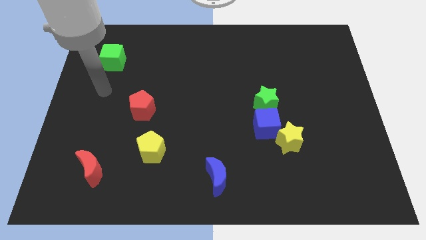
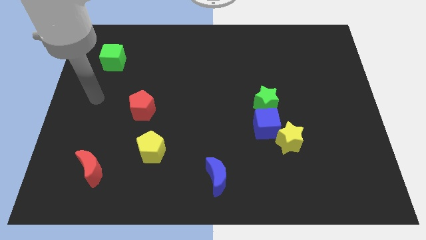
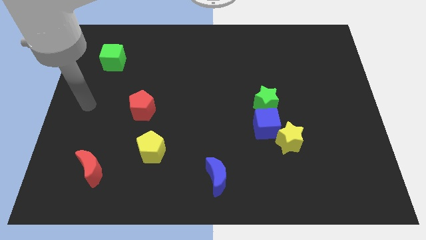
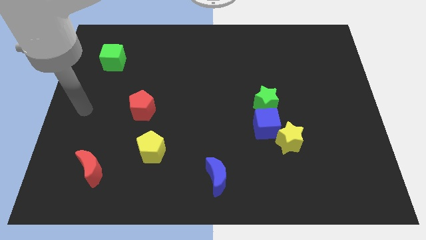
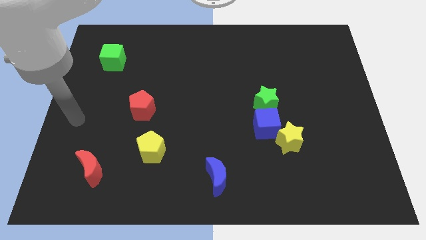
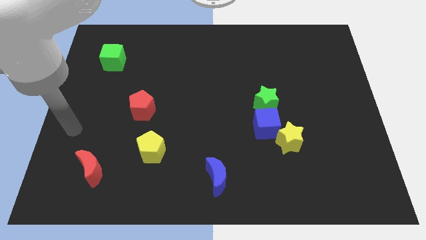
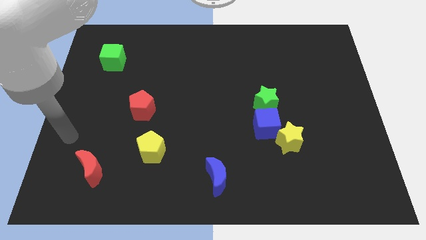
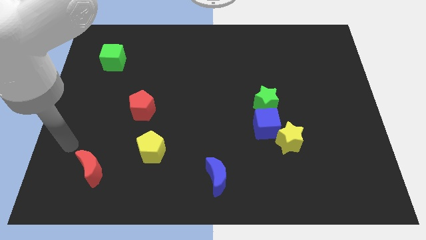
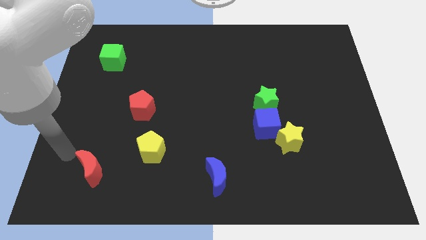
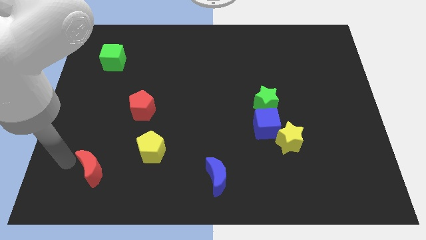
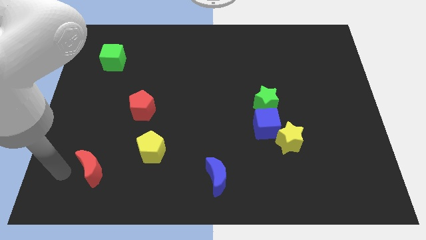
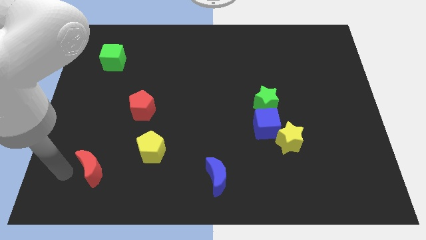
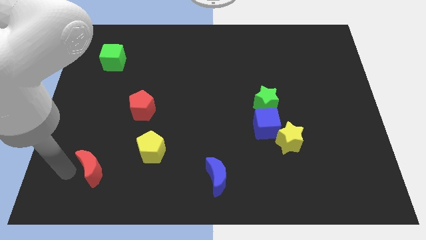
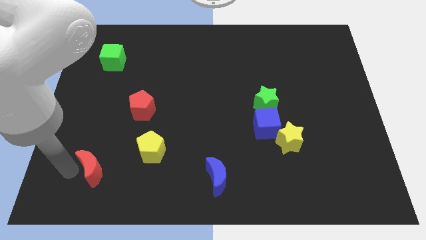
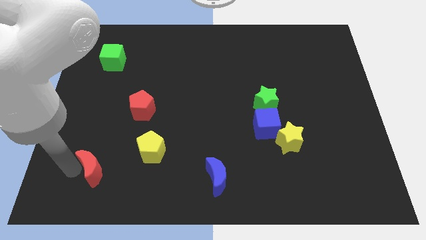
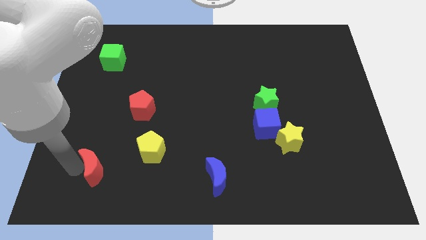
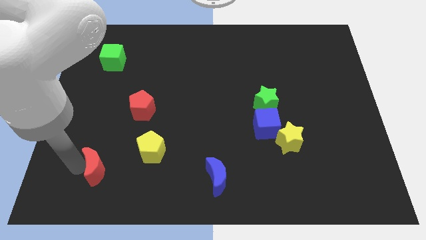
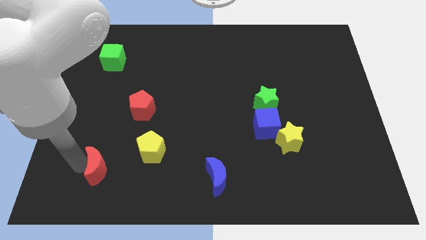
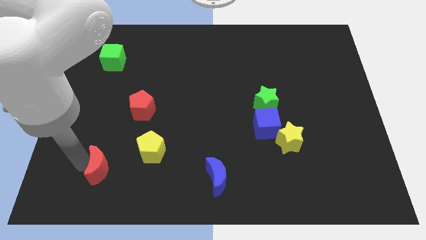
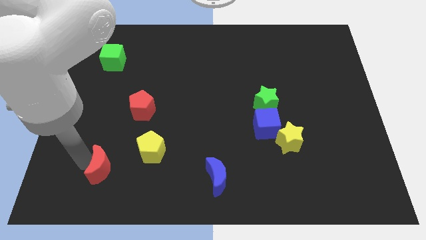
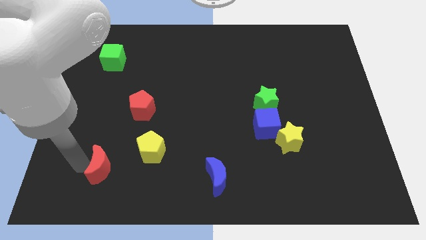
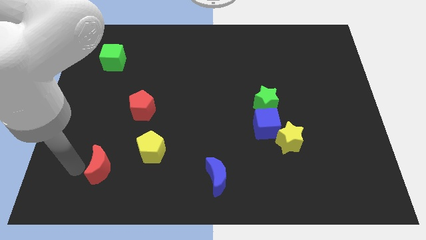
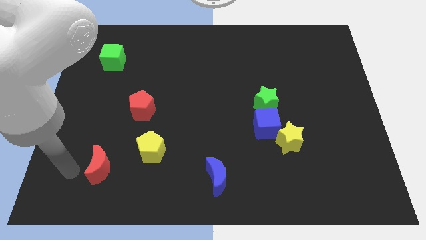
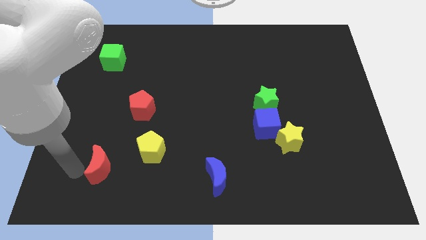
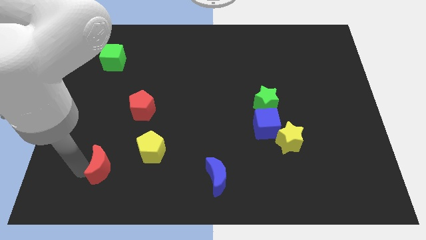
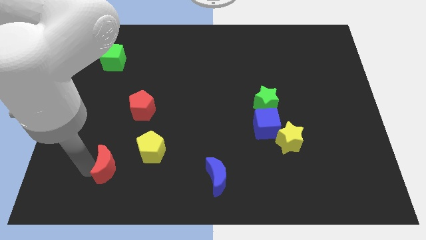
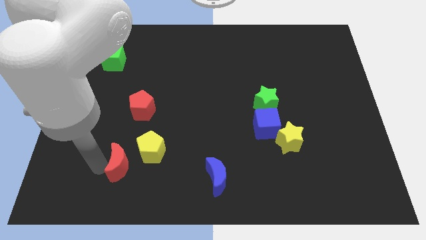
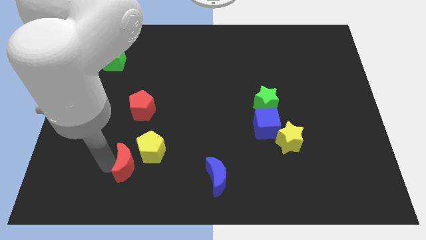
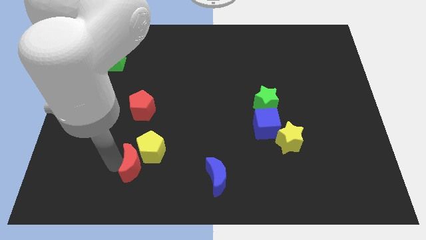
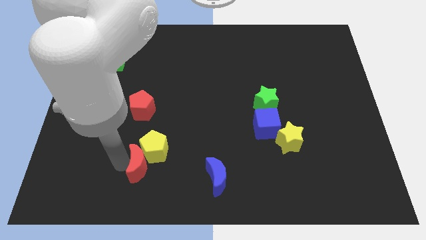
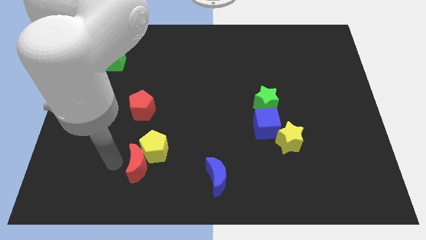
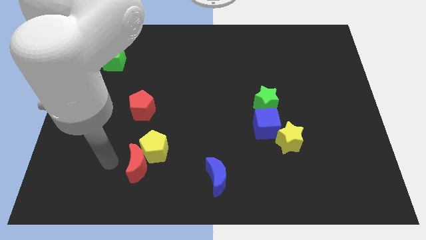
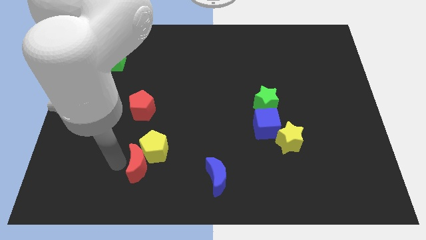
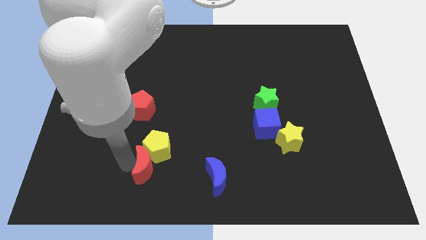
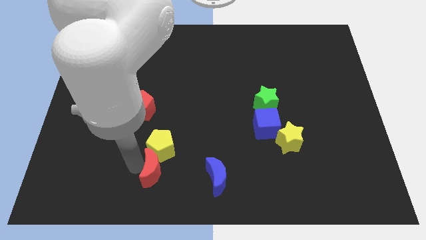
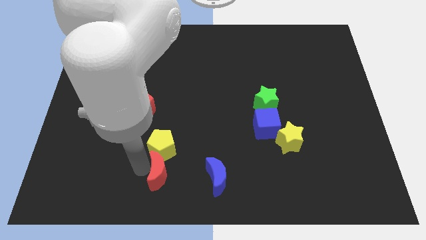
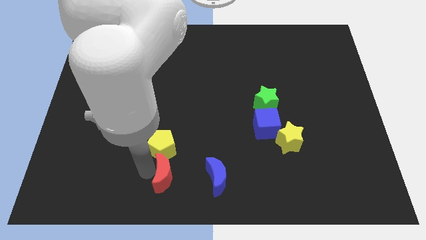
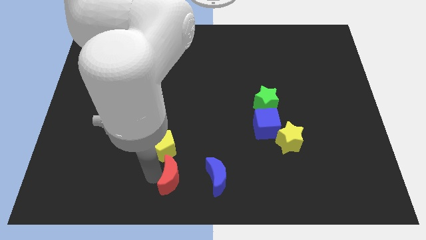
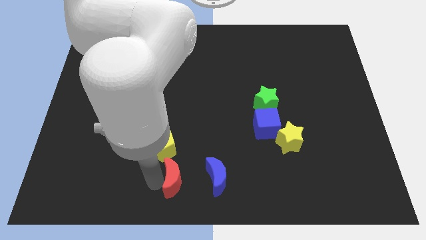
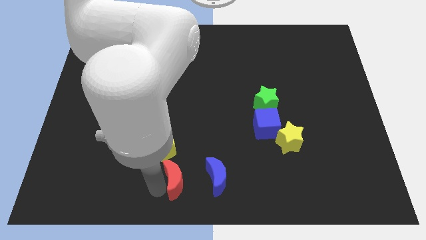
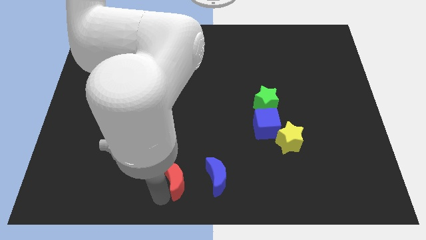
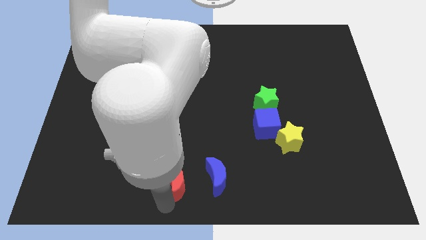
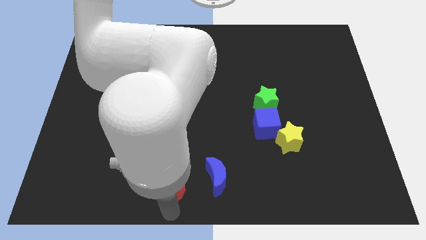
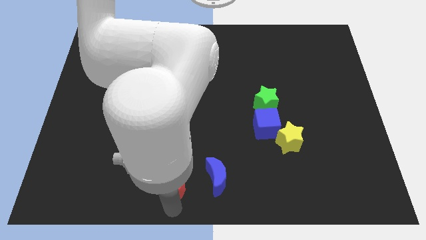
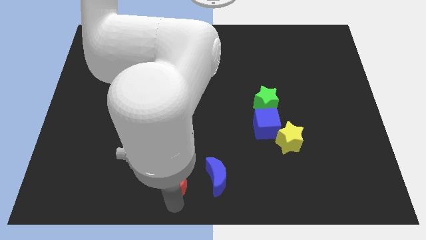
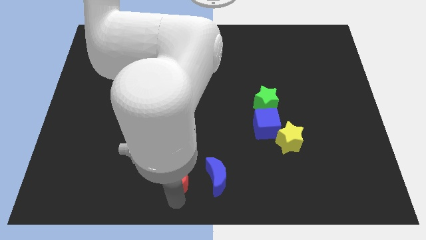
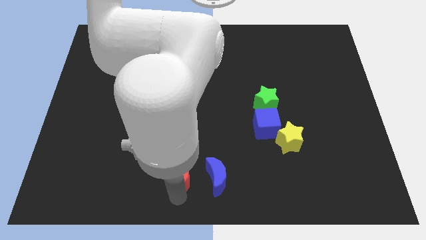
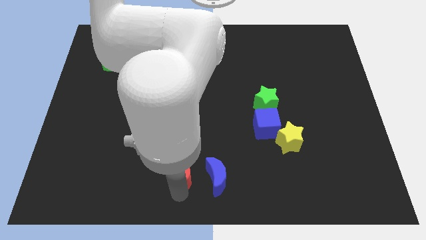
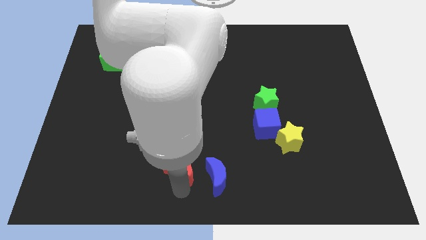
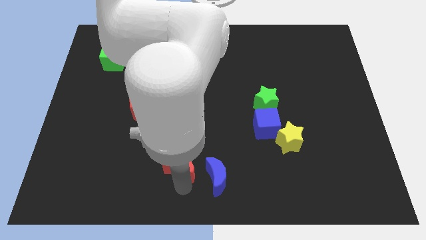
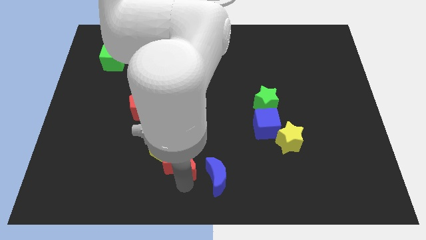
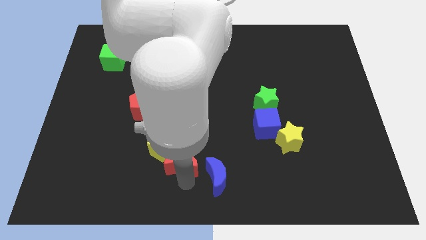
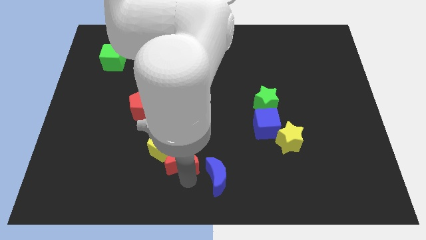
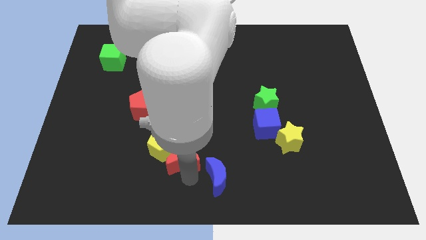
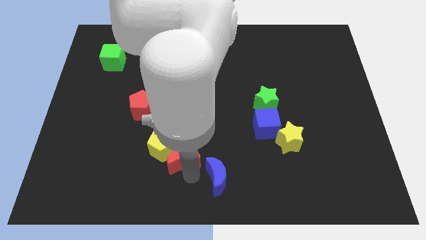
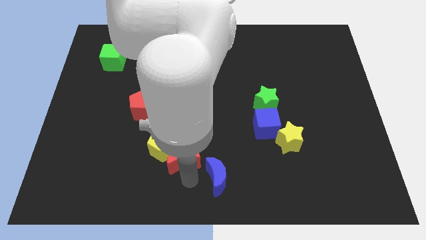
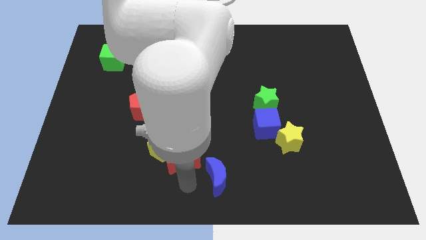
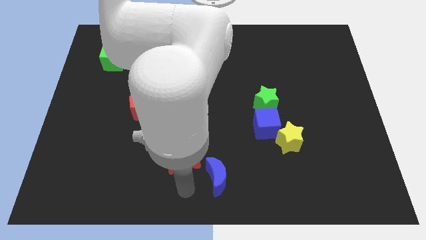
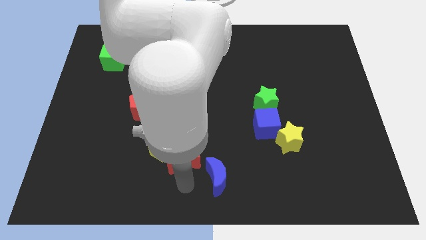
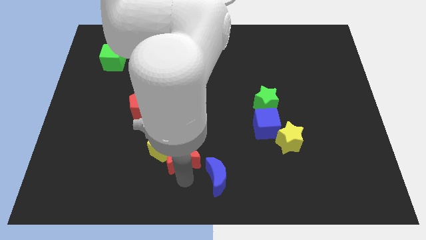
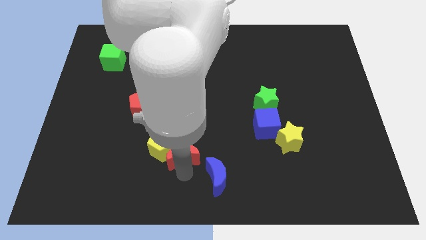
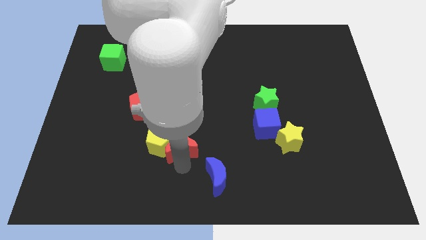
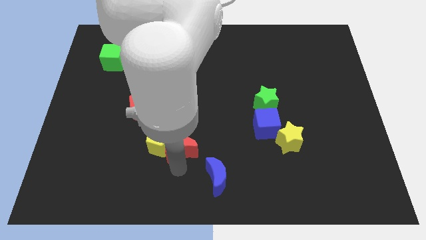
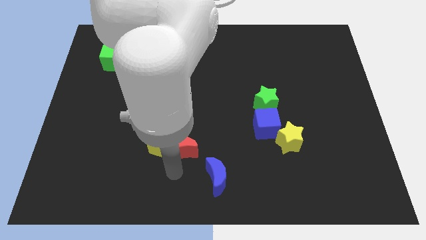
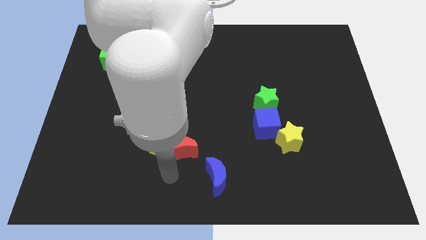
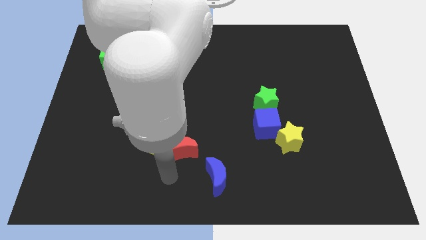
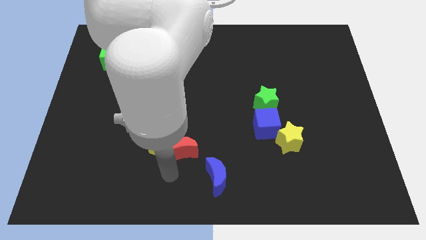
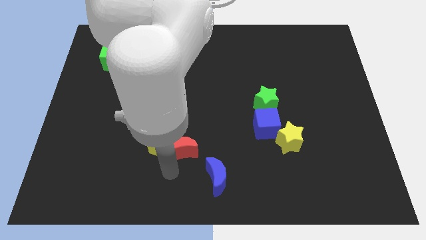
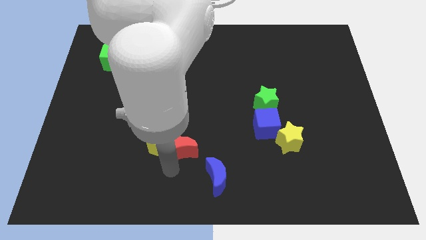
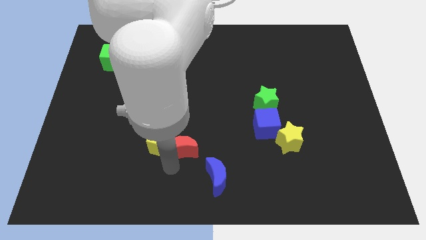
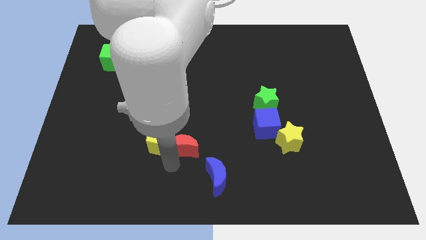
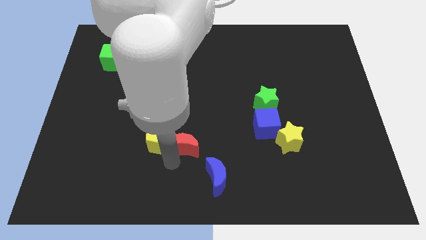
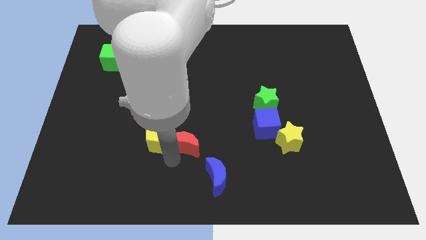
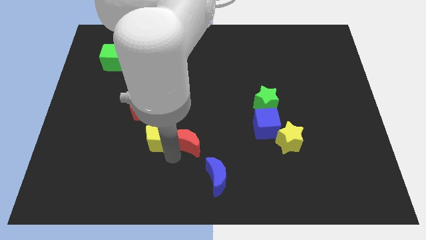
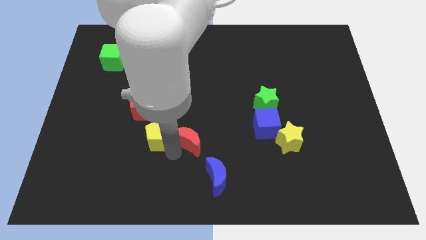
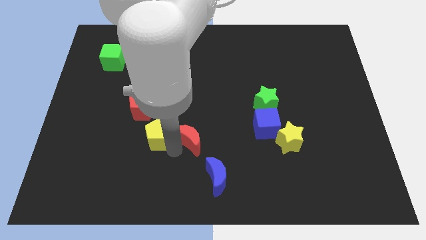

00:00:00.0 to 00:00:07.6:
put the red moon to the center
